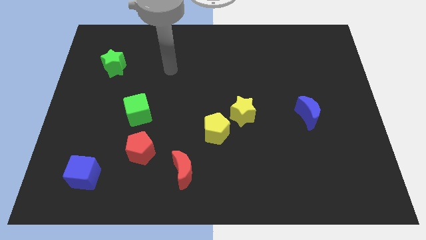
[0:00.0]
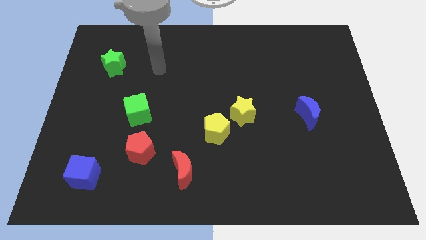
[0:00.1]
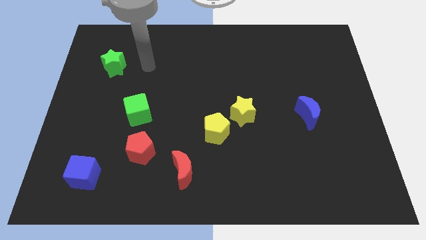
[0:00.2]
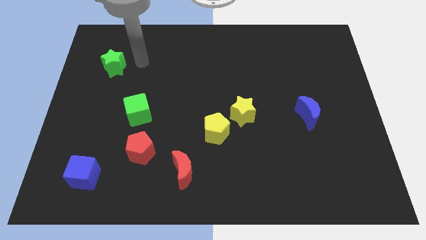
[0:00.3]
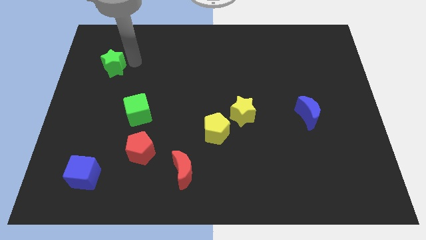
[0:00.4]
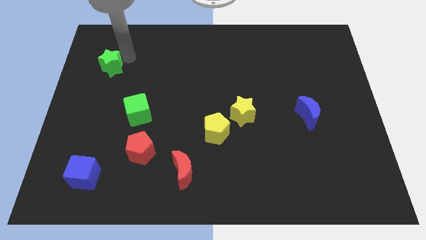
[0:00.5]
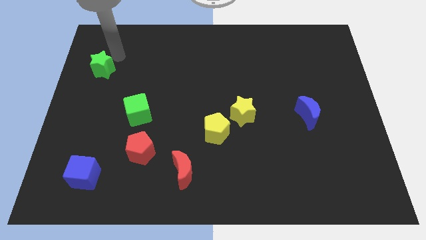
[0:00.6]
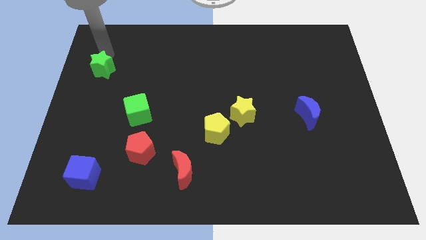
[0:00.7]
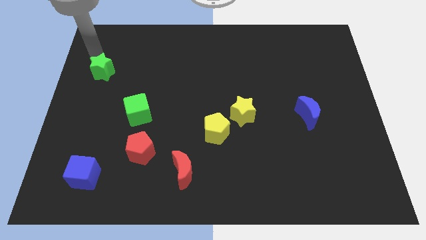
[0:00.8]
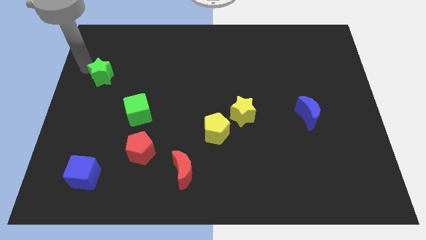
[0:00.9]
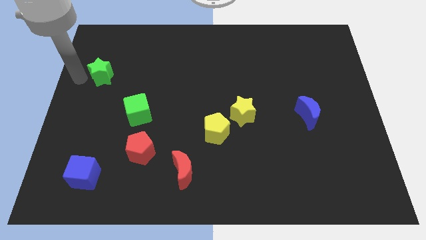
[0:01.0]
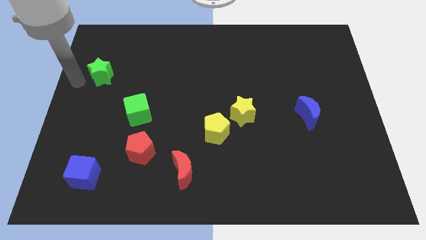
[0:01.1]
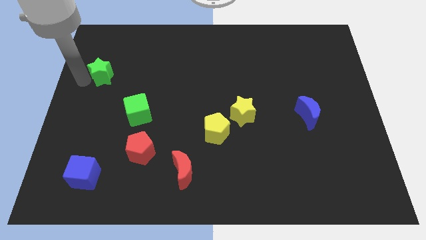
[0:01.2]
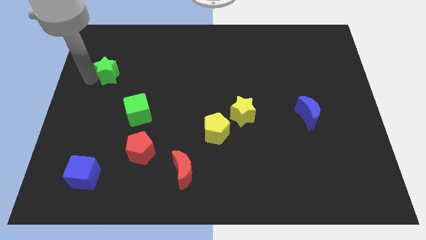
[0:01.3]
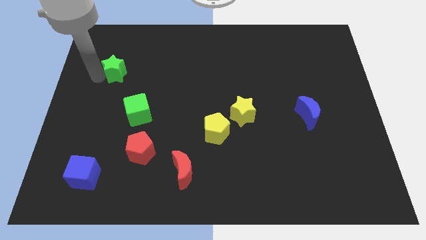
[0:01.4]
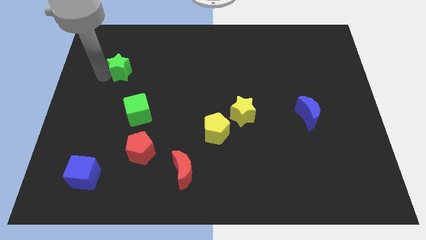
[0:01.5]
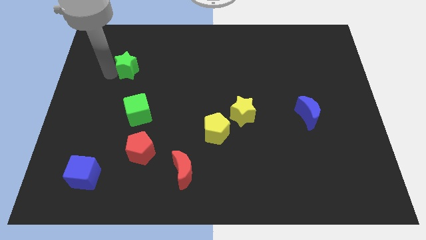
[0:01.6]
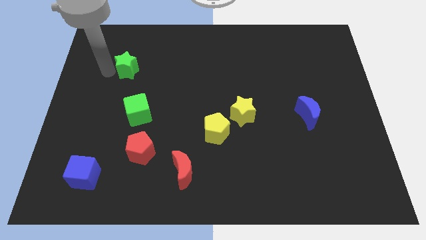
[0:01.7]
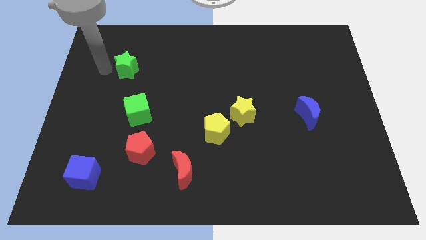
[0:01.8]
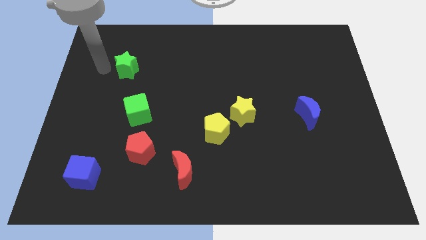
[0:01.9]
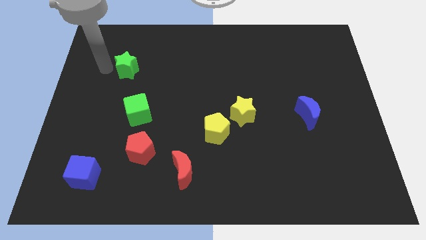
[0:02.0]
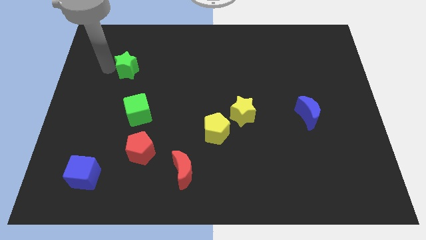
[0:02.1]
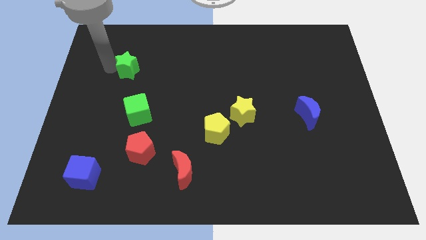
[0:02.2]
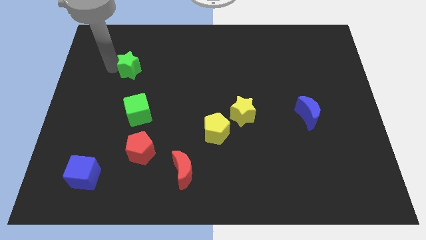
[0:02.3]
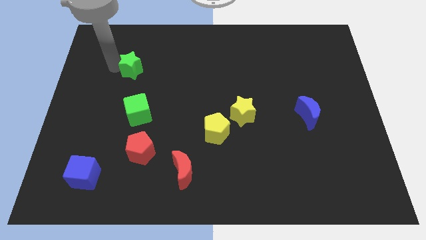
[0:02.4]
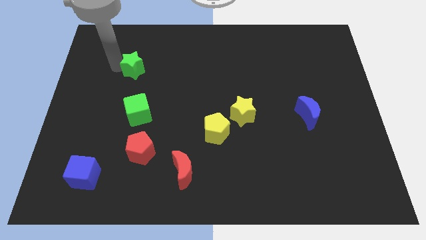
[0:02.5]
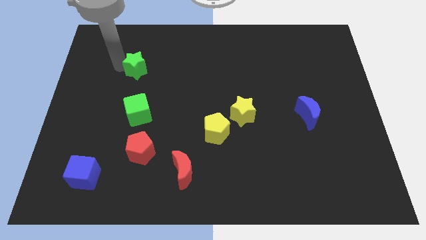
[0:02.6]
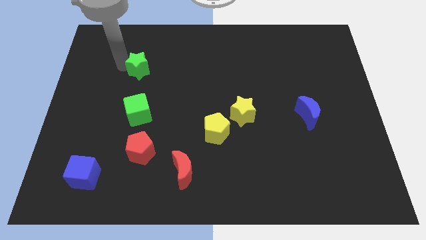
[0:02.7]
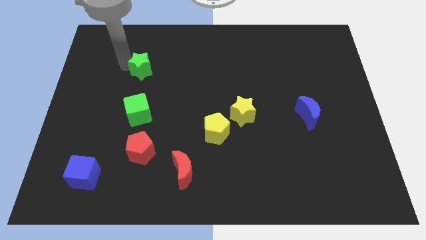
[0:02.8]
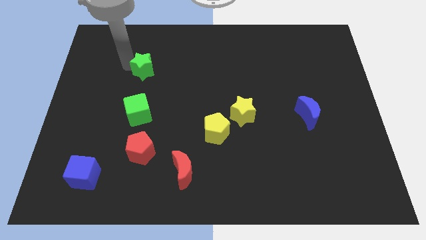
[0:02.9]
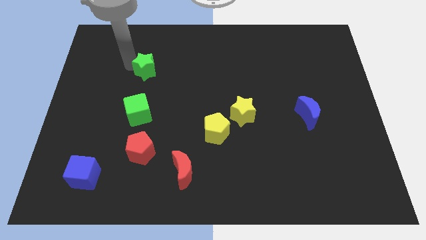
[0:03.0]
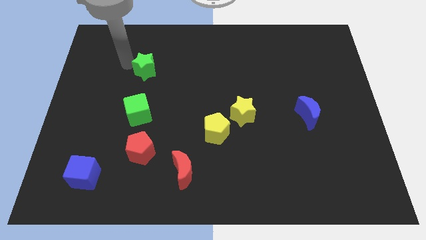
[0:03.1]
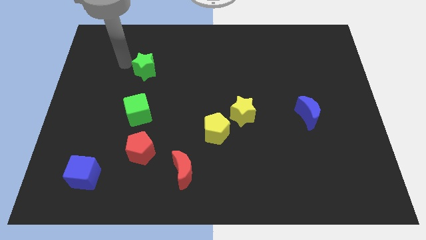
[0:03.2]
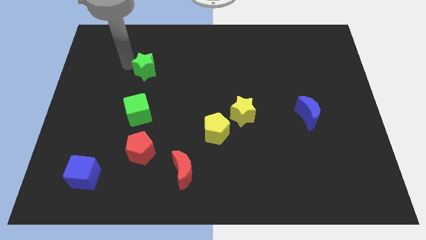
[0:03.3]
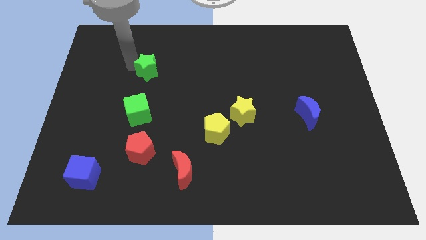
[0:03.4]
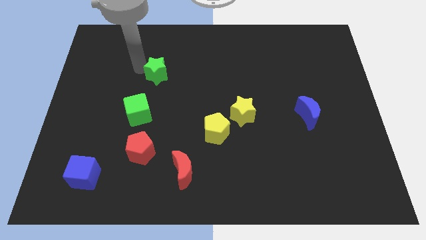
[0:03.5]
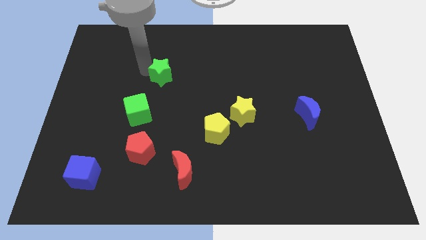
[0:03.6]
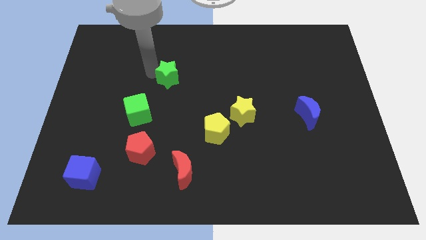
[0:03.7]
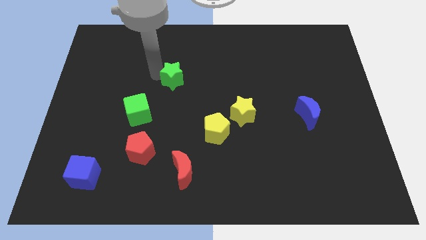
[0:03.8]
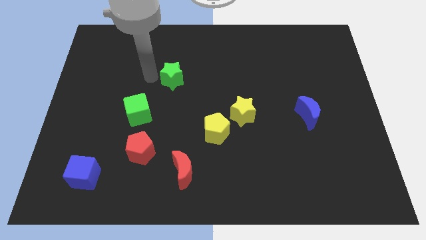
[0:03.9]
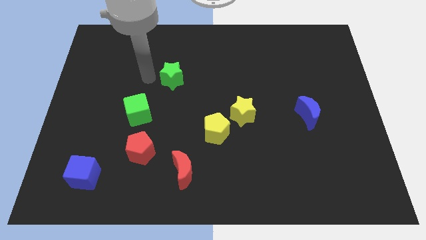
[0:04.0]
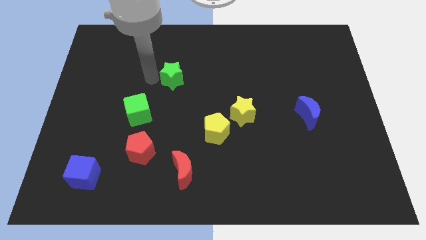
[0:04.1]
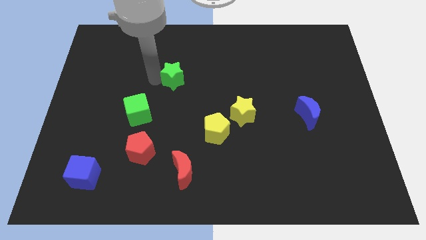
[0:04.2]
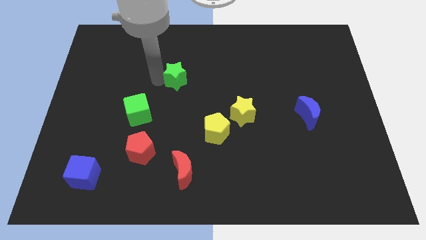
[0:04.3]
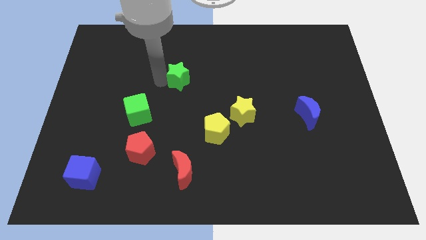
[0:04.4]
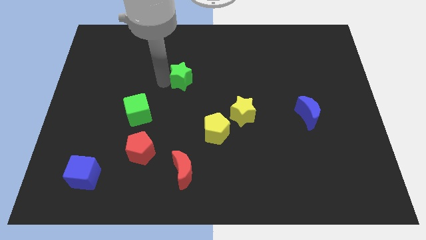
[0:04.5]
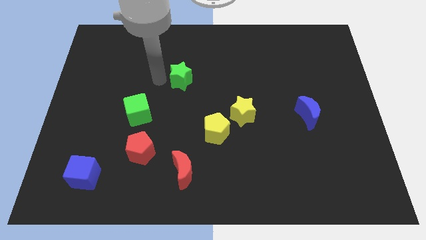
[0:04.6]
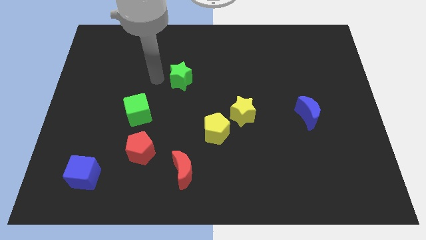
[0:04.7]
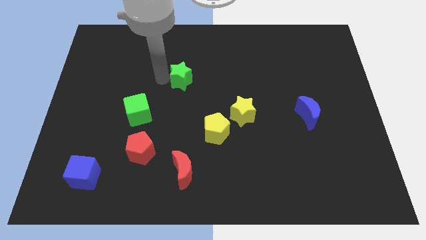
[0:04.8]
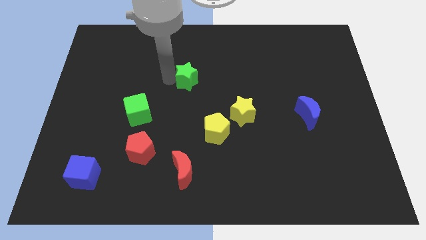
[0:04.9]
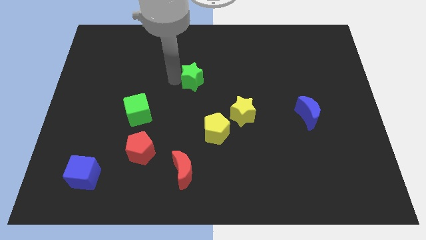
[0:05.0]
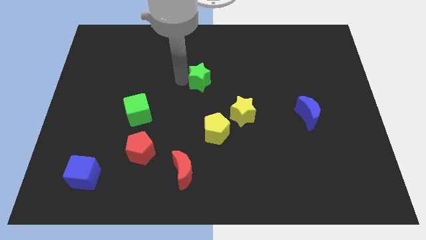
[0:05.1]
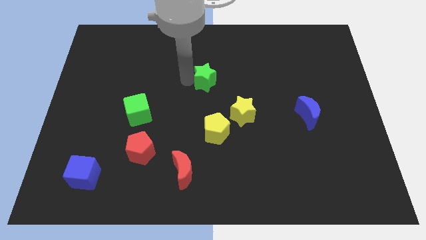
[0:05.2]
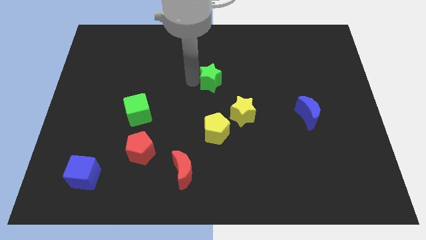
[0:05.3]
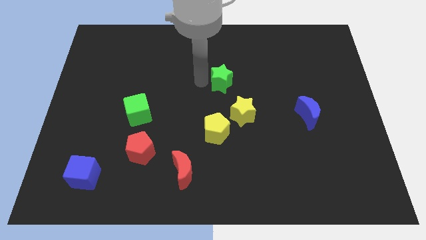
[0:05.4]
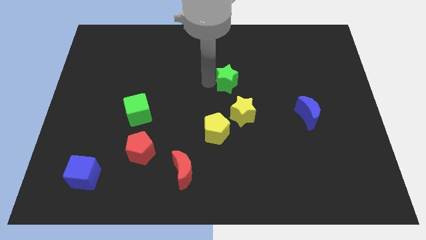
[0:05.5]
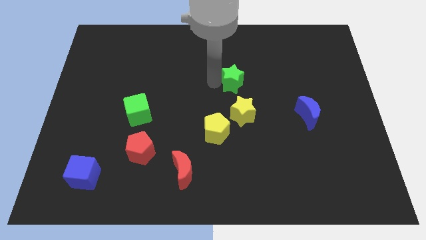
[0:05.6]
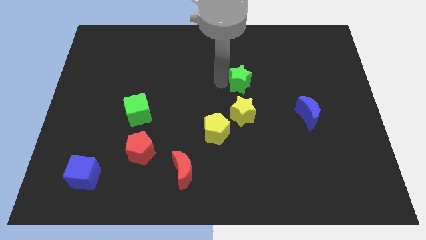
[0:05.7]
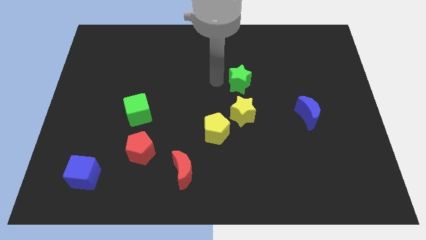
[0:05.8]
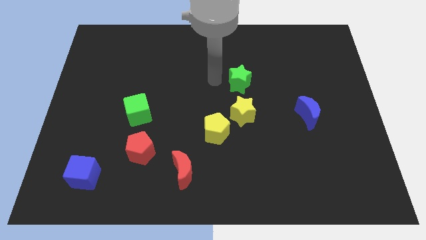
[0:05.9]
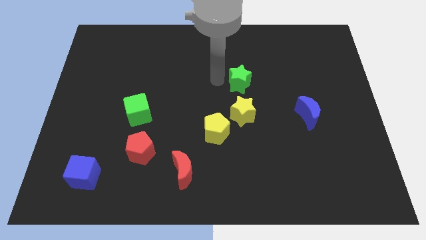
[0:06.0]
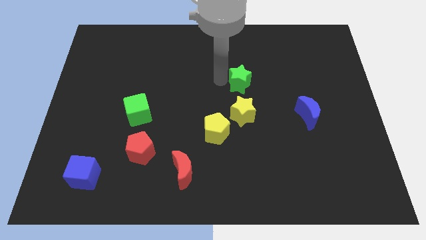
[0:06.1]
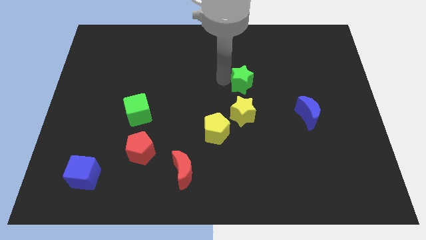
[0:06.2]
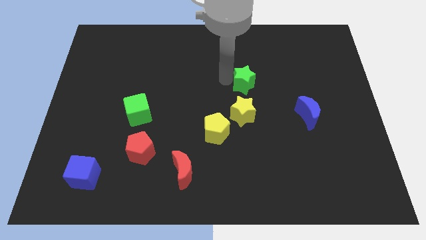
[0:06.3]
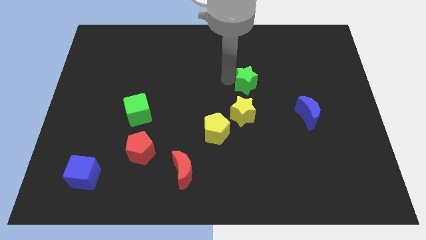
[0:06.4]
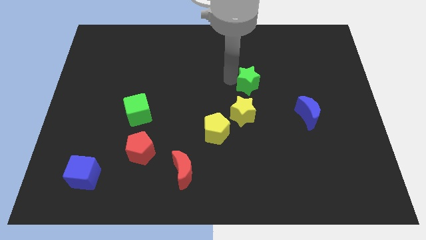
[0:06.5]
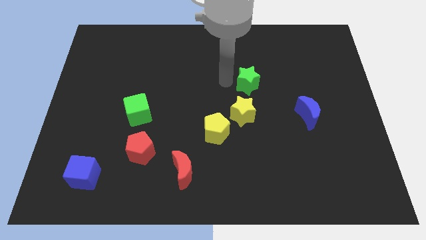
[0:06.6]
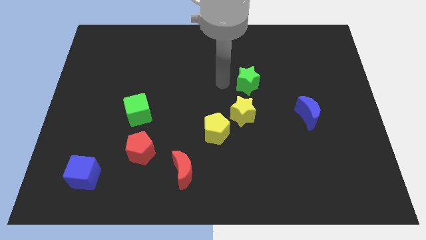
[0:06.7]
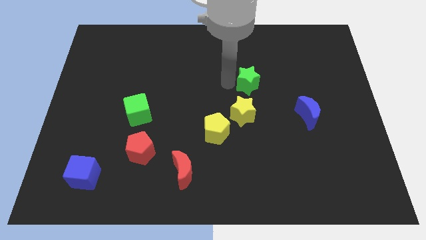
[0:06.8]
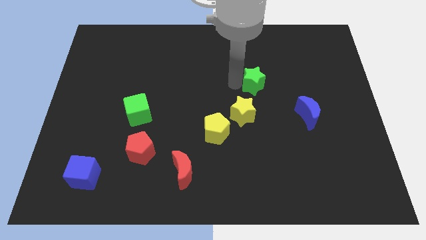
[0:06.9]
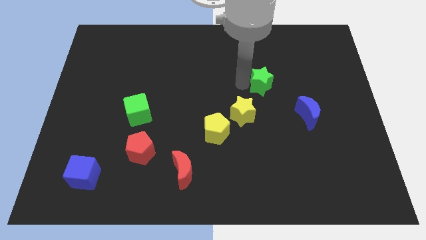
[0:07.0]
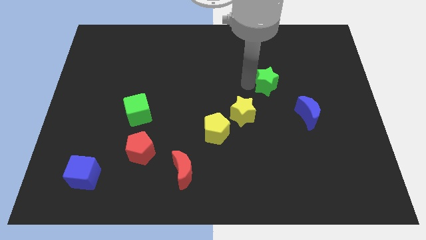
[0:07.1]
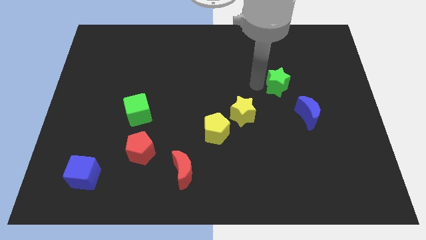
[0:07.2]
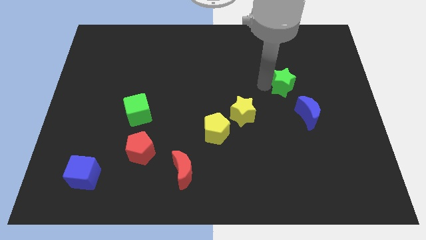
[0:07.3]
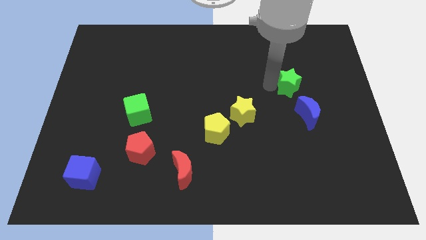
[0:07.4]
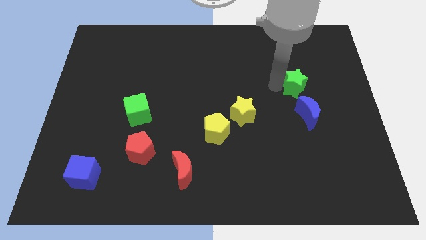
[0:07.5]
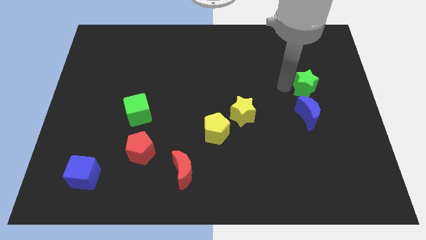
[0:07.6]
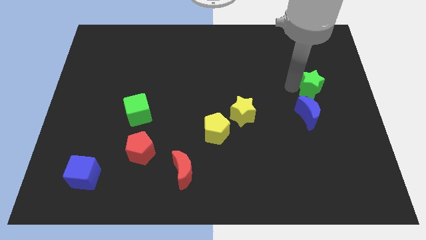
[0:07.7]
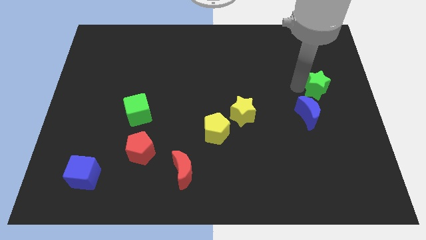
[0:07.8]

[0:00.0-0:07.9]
move the green star to the right side
